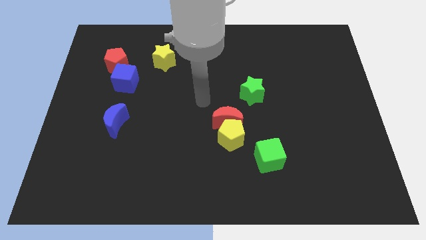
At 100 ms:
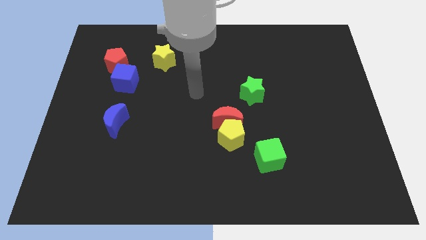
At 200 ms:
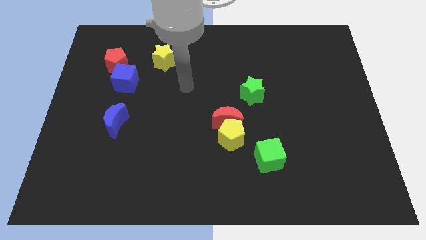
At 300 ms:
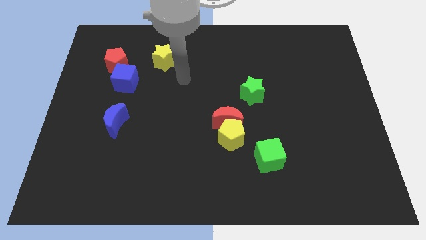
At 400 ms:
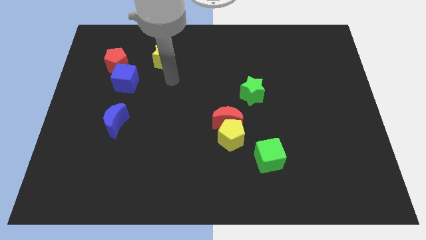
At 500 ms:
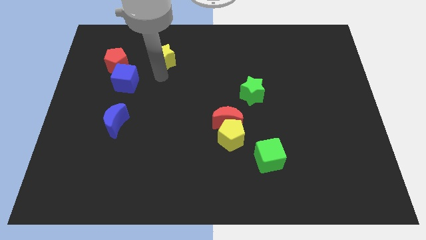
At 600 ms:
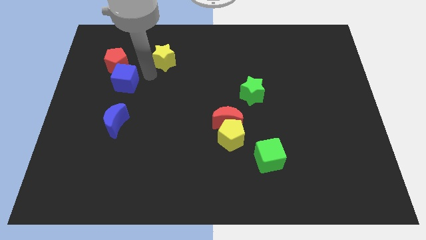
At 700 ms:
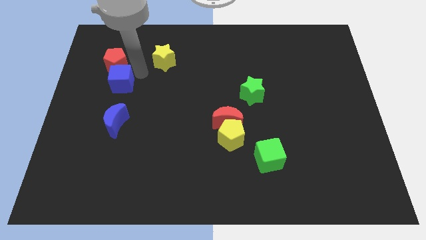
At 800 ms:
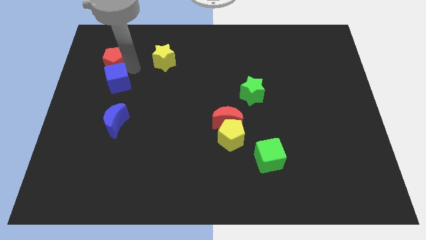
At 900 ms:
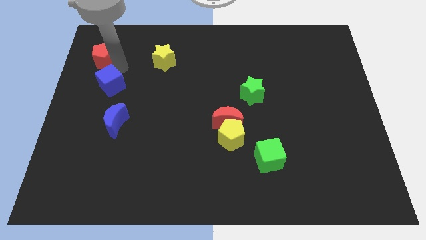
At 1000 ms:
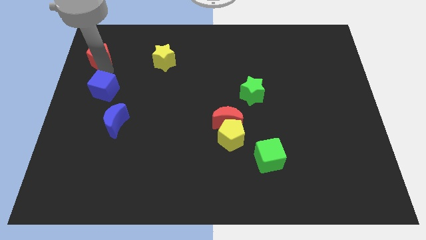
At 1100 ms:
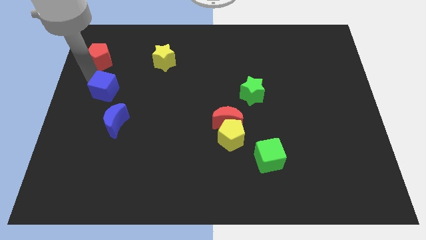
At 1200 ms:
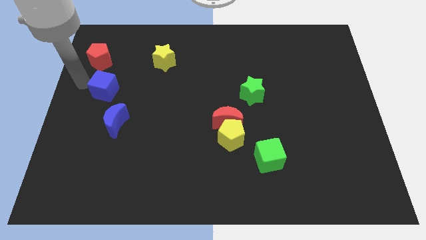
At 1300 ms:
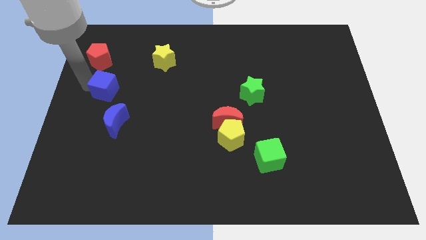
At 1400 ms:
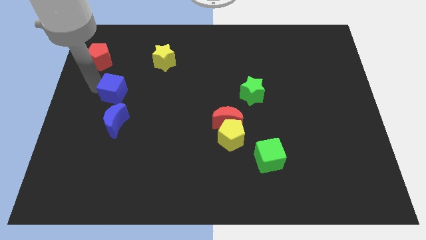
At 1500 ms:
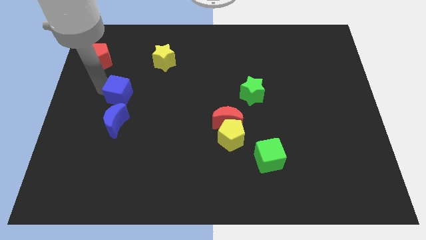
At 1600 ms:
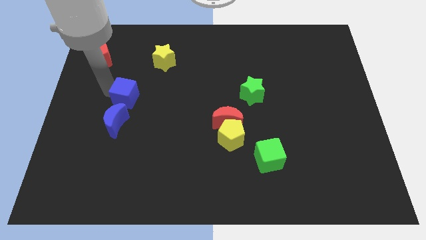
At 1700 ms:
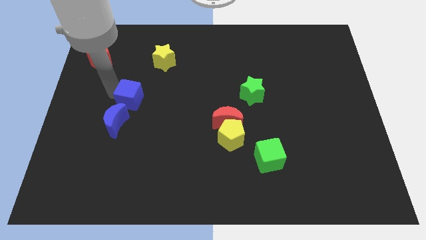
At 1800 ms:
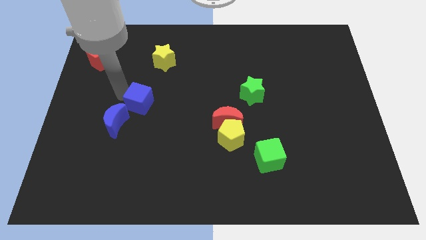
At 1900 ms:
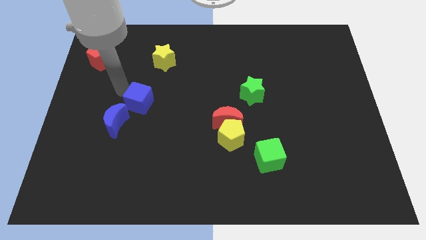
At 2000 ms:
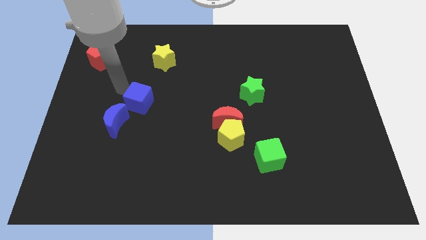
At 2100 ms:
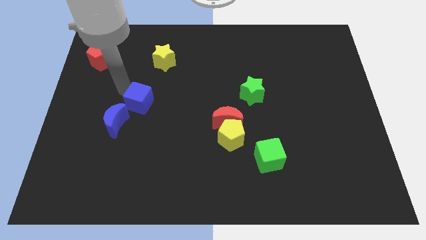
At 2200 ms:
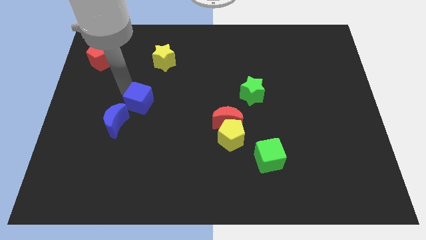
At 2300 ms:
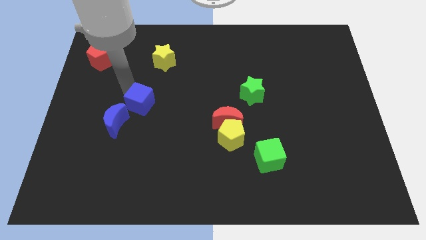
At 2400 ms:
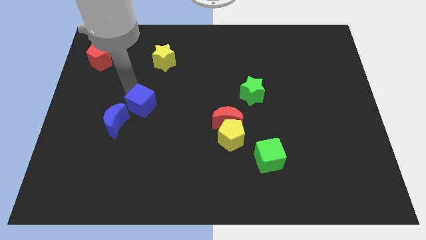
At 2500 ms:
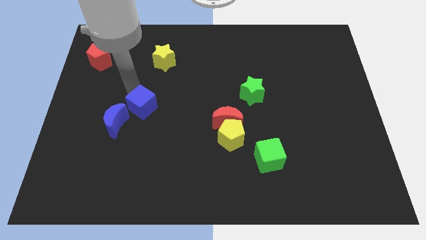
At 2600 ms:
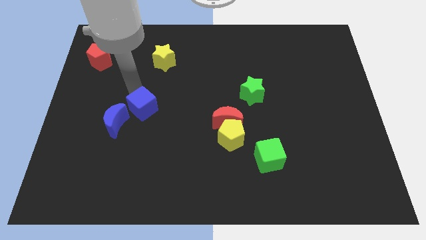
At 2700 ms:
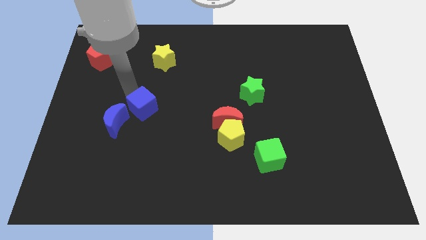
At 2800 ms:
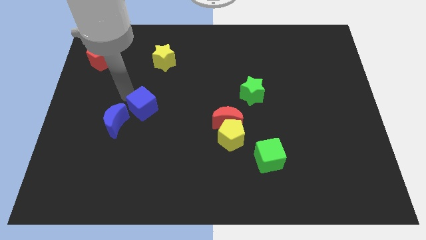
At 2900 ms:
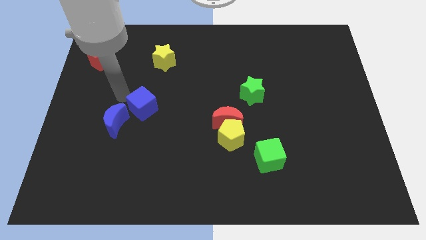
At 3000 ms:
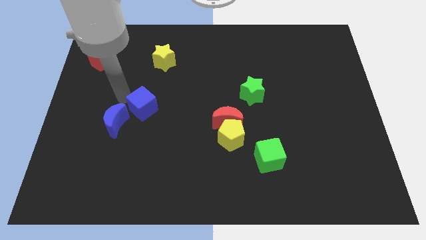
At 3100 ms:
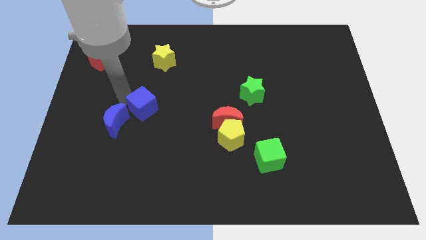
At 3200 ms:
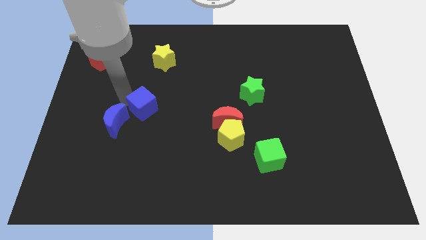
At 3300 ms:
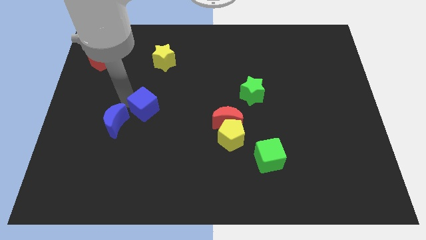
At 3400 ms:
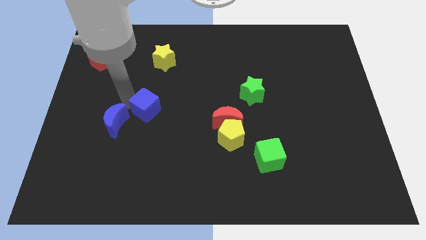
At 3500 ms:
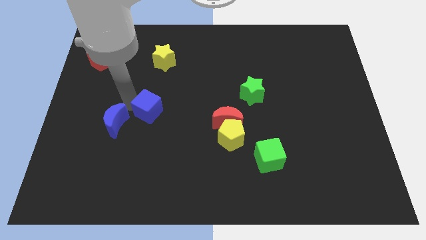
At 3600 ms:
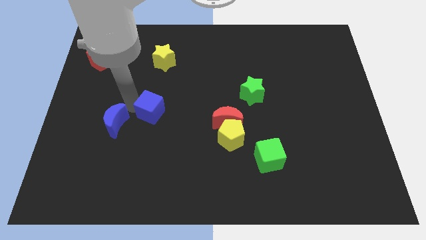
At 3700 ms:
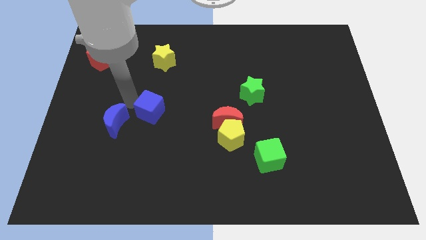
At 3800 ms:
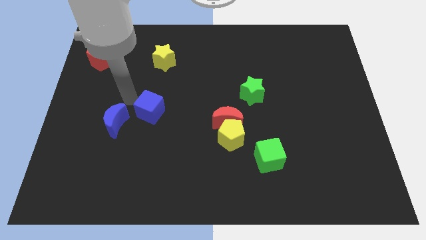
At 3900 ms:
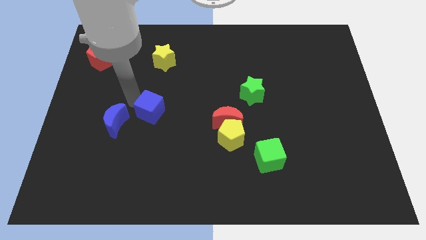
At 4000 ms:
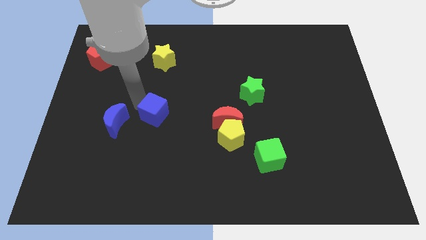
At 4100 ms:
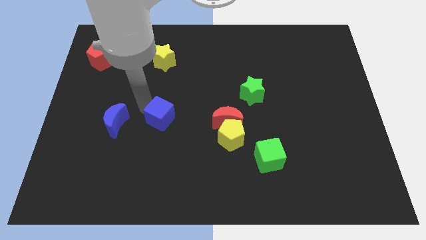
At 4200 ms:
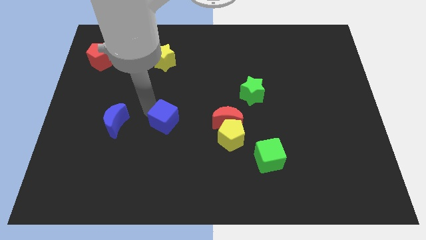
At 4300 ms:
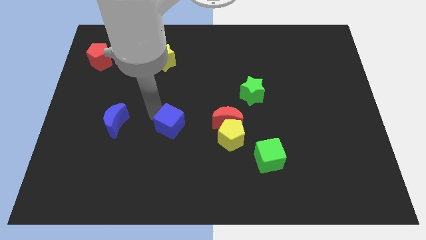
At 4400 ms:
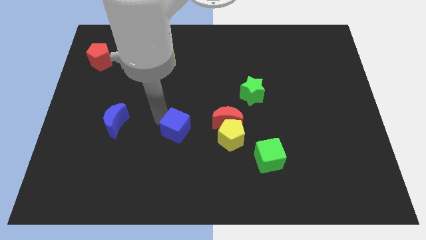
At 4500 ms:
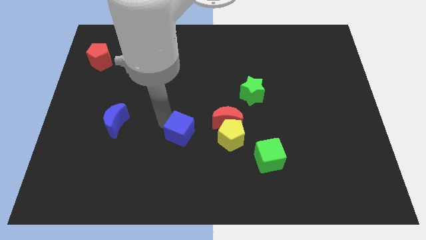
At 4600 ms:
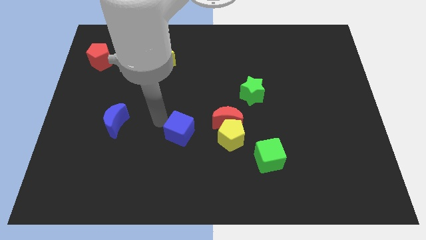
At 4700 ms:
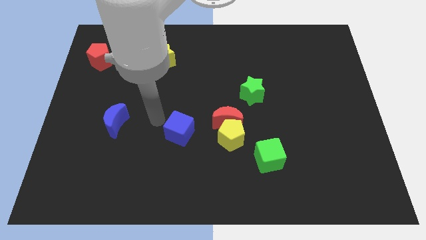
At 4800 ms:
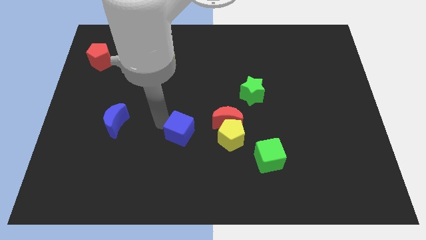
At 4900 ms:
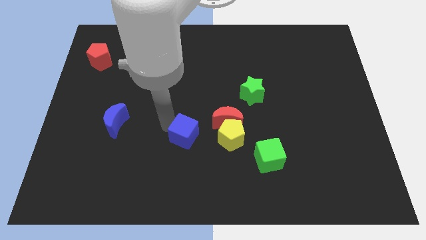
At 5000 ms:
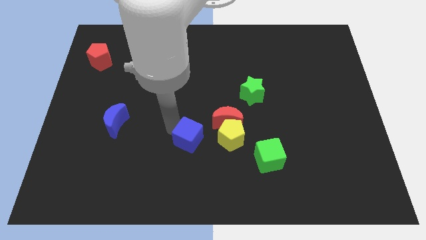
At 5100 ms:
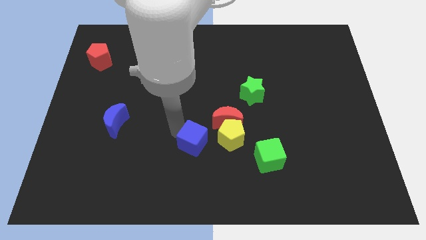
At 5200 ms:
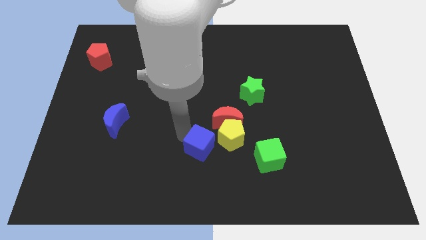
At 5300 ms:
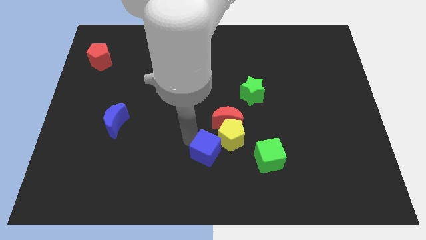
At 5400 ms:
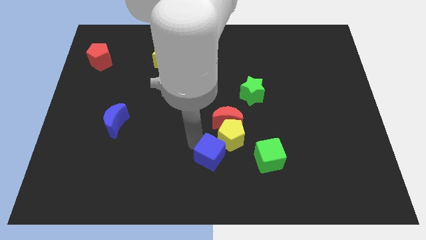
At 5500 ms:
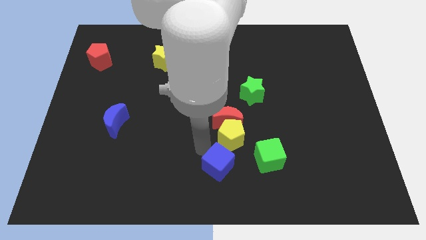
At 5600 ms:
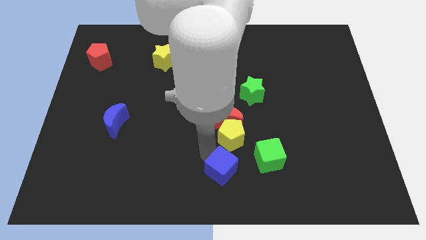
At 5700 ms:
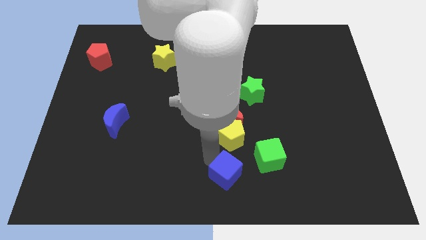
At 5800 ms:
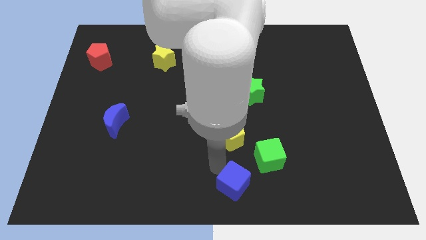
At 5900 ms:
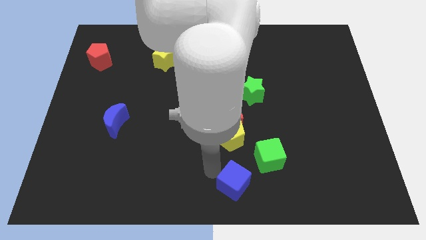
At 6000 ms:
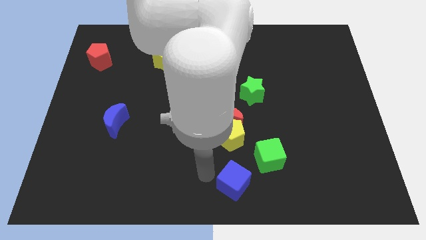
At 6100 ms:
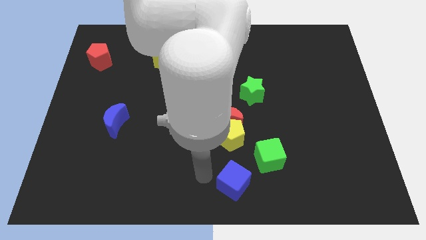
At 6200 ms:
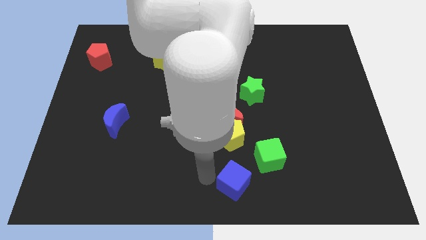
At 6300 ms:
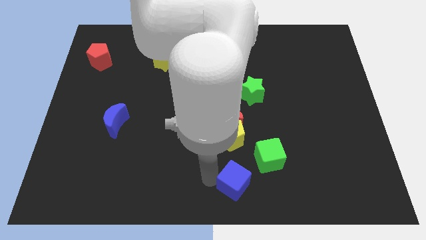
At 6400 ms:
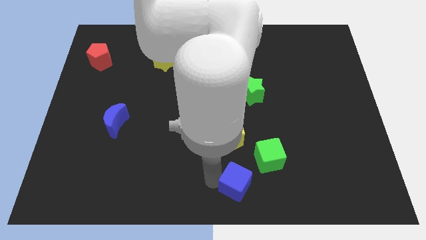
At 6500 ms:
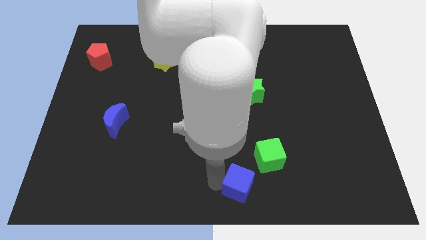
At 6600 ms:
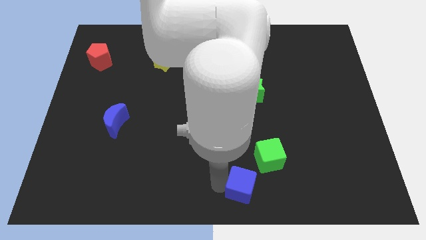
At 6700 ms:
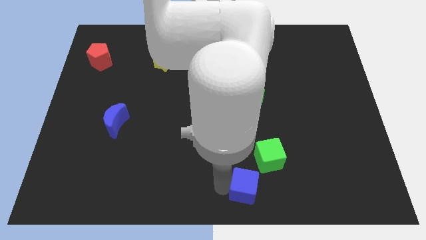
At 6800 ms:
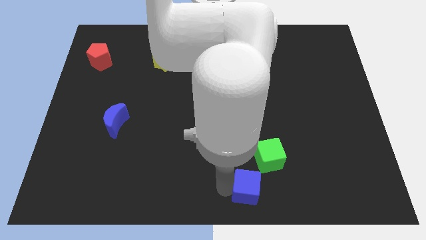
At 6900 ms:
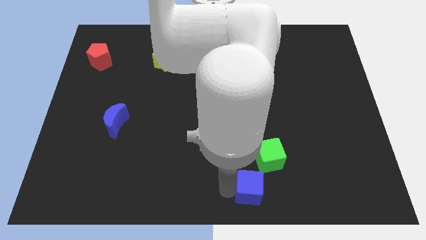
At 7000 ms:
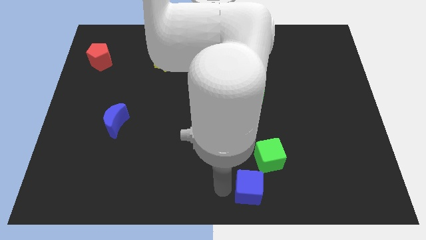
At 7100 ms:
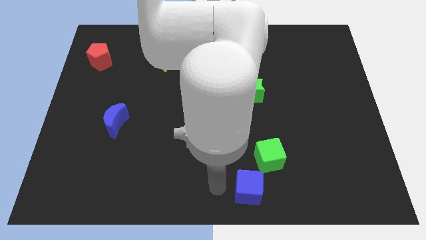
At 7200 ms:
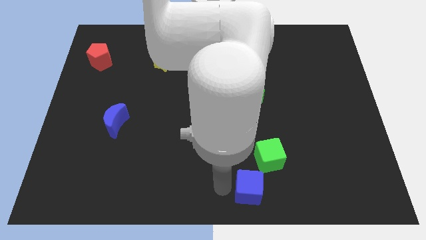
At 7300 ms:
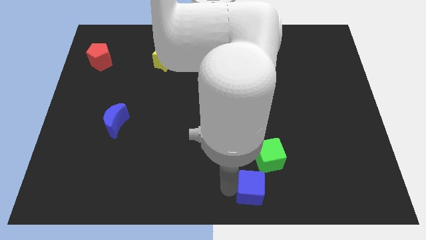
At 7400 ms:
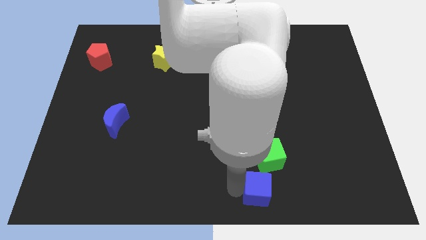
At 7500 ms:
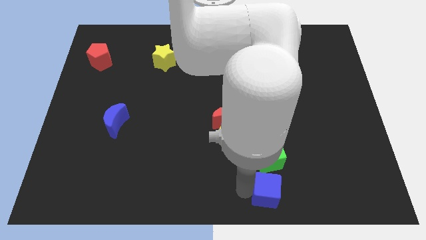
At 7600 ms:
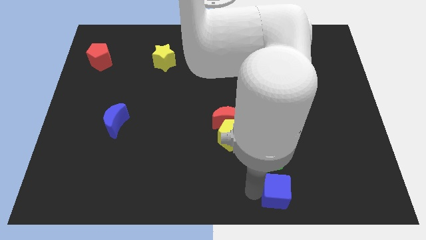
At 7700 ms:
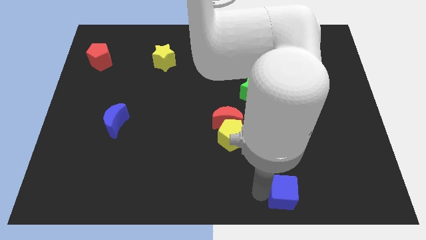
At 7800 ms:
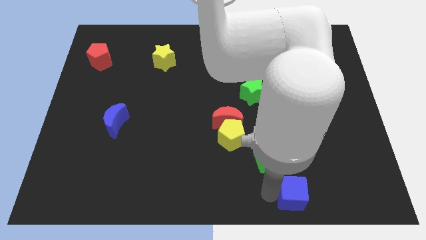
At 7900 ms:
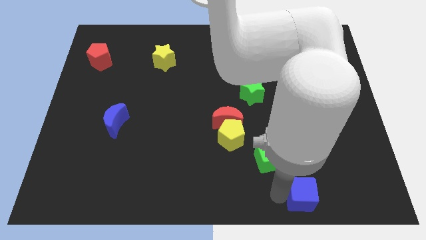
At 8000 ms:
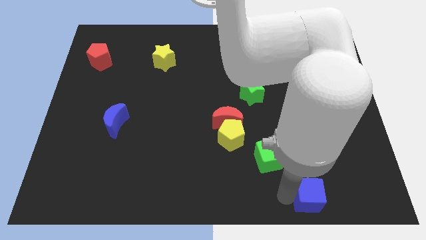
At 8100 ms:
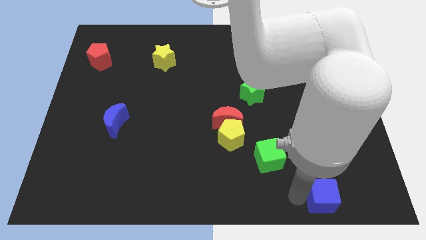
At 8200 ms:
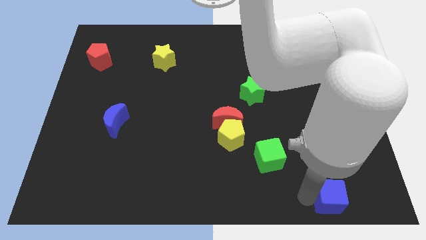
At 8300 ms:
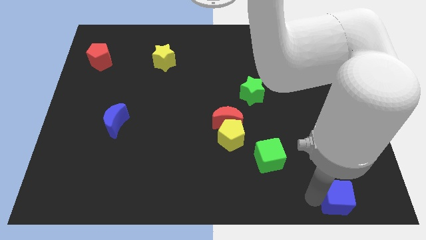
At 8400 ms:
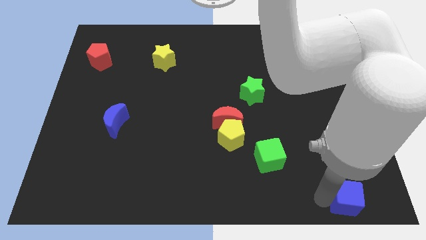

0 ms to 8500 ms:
push the blue cube to the bottom right of the board

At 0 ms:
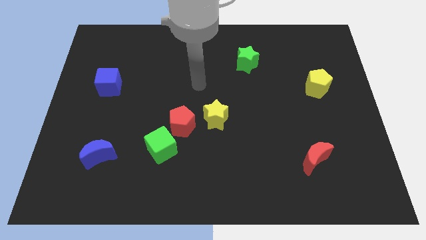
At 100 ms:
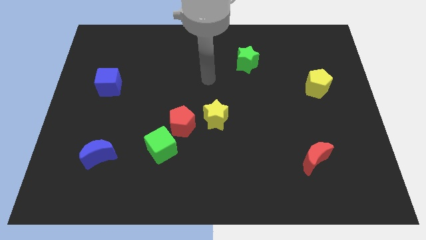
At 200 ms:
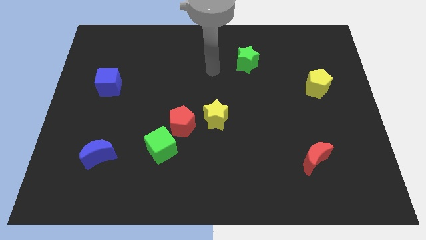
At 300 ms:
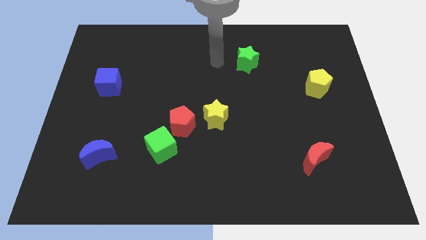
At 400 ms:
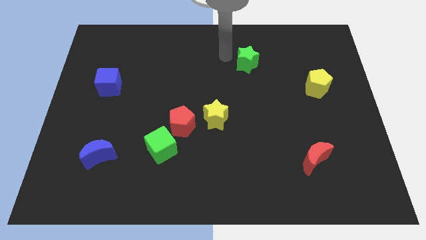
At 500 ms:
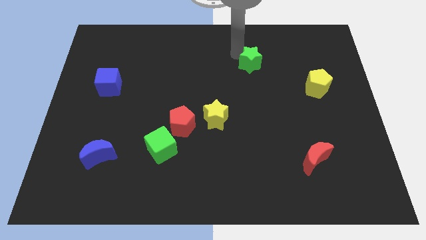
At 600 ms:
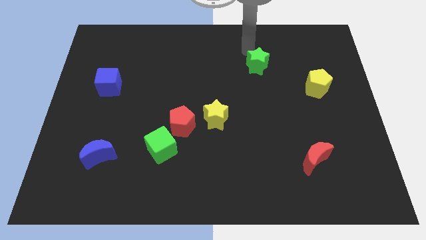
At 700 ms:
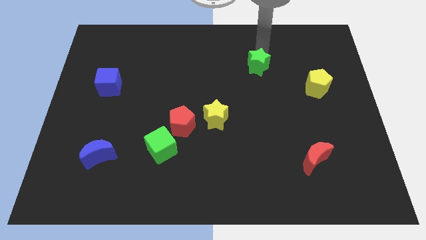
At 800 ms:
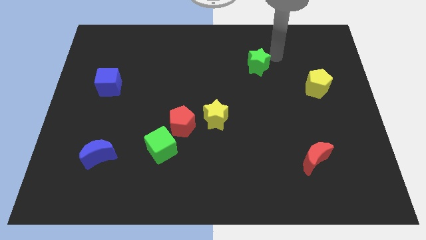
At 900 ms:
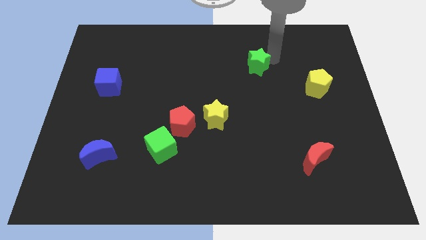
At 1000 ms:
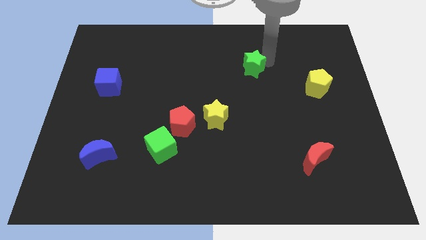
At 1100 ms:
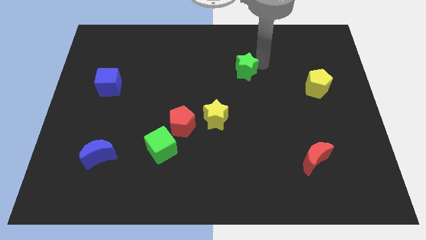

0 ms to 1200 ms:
push the green star to the middle of the board
